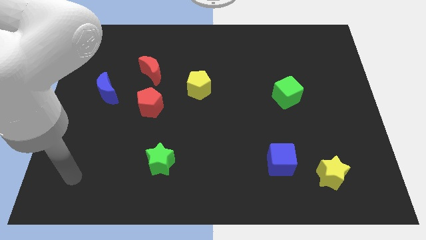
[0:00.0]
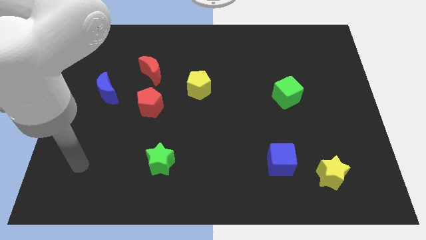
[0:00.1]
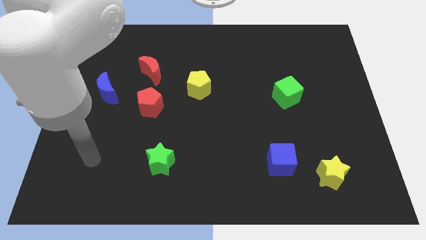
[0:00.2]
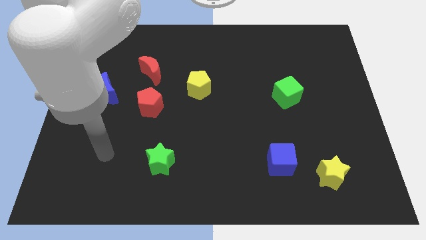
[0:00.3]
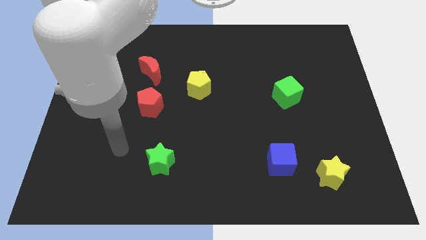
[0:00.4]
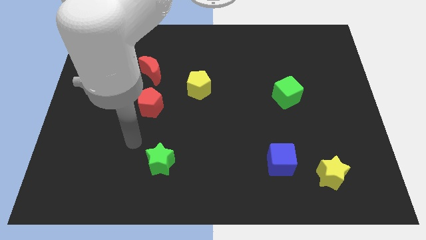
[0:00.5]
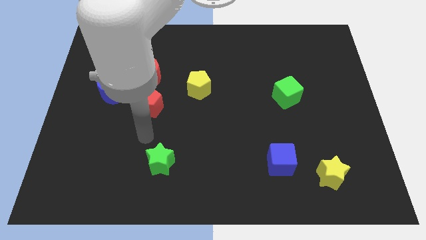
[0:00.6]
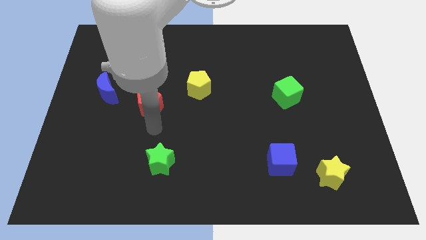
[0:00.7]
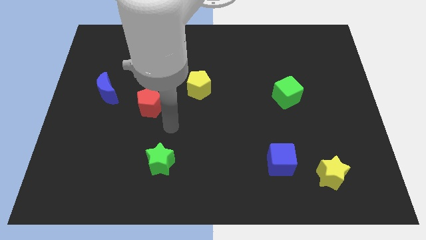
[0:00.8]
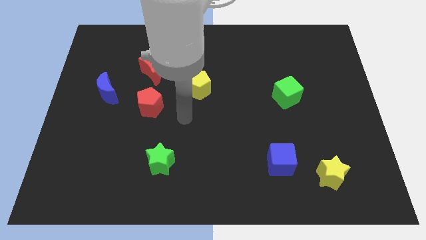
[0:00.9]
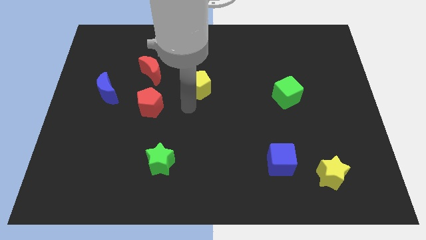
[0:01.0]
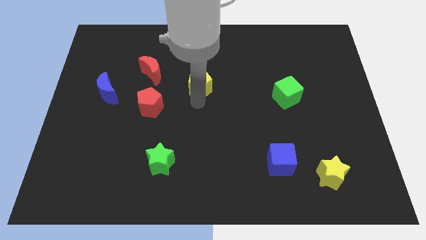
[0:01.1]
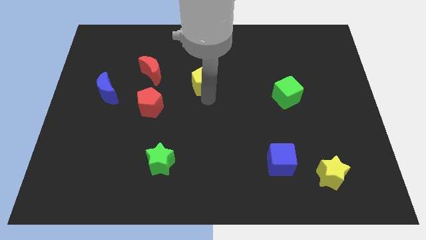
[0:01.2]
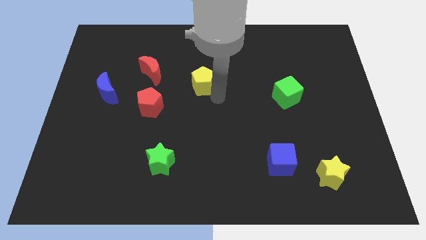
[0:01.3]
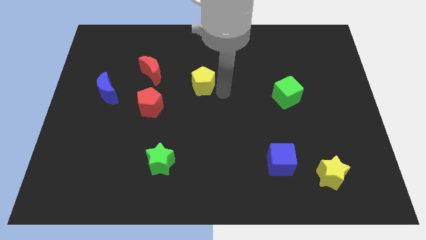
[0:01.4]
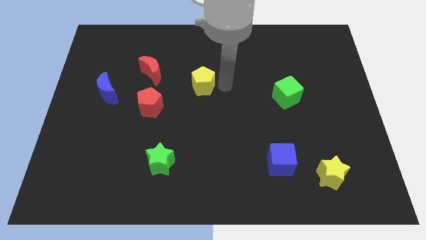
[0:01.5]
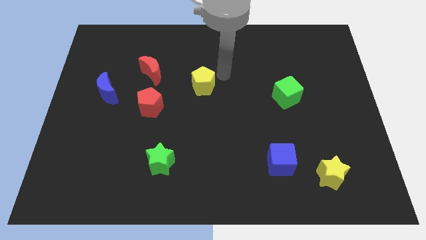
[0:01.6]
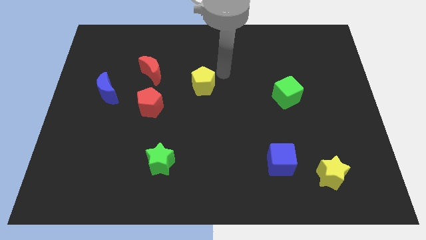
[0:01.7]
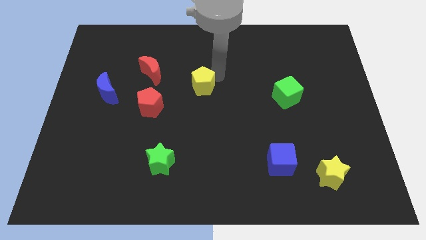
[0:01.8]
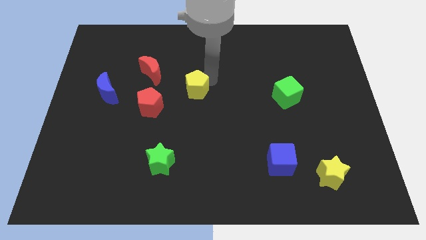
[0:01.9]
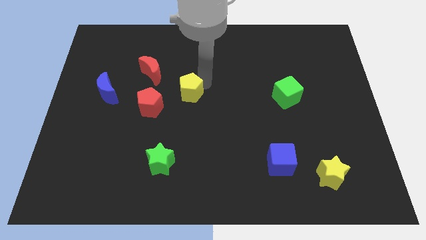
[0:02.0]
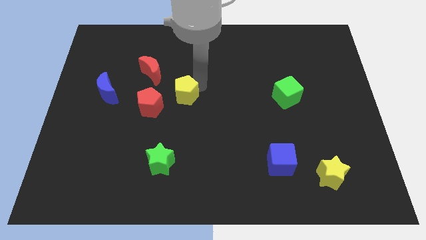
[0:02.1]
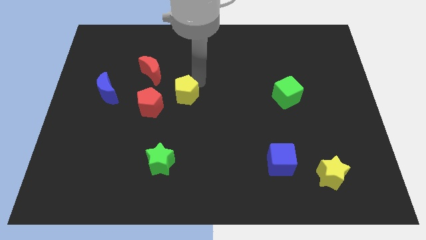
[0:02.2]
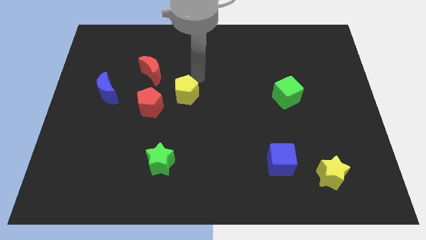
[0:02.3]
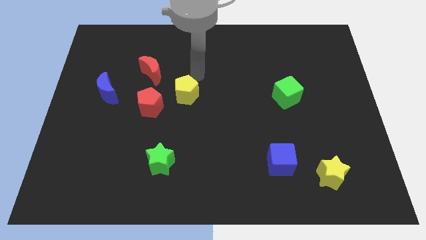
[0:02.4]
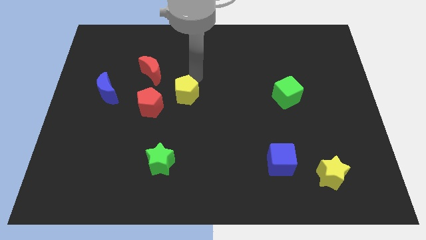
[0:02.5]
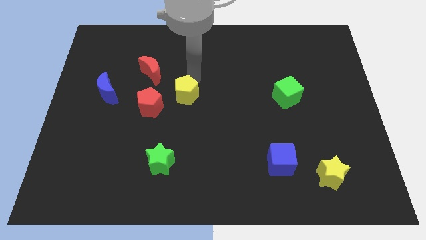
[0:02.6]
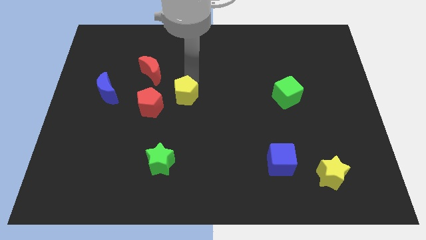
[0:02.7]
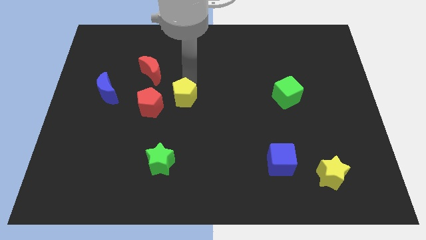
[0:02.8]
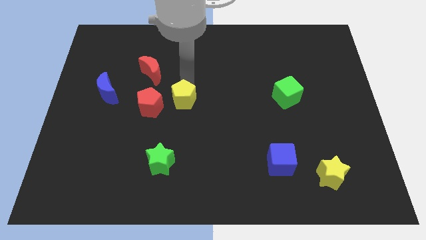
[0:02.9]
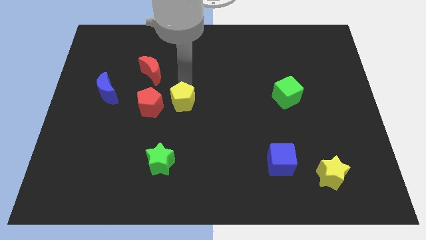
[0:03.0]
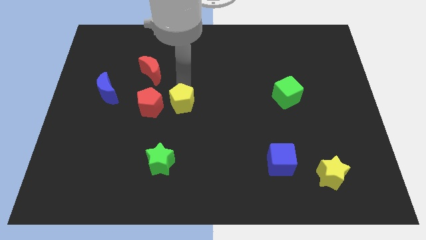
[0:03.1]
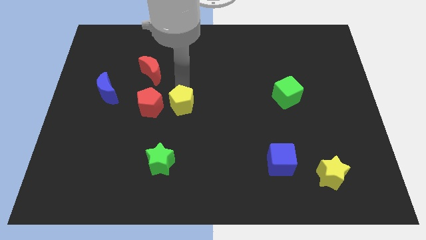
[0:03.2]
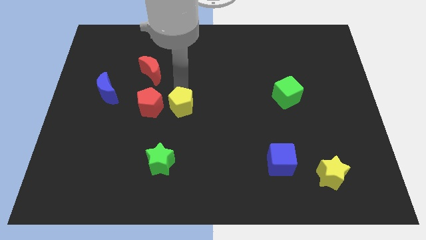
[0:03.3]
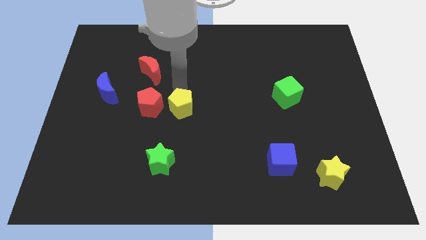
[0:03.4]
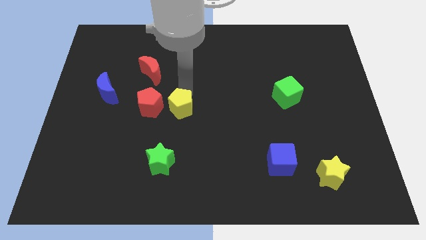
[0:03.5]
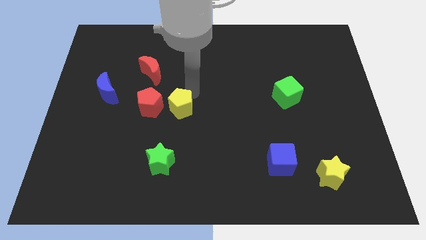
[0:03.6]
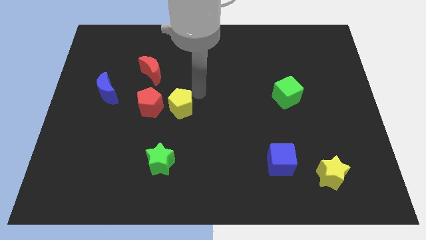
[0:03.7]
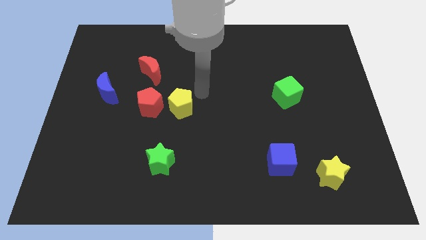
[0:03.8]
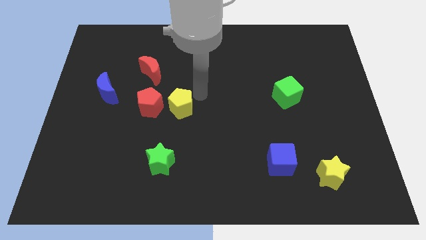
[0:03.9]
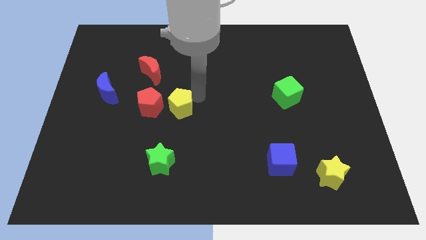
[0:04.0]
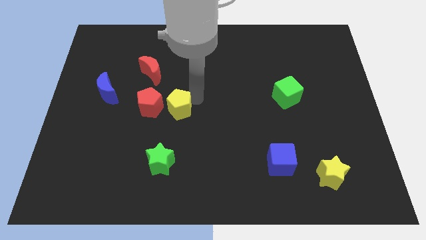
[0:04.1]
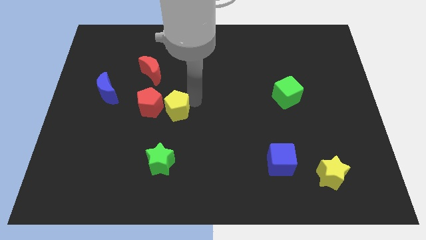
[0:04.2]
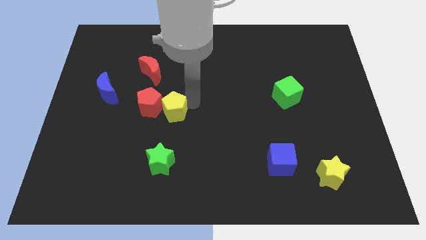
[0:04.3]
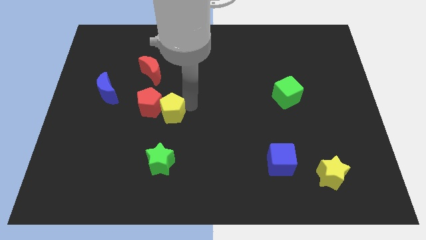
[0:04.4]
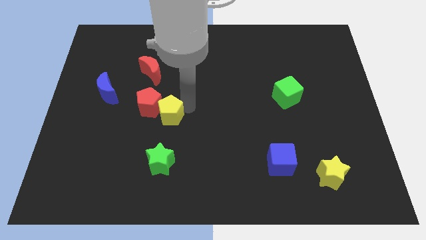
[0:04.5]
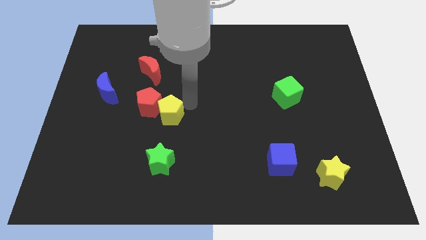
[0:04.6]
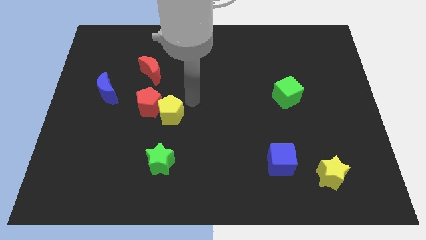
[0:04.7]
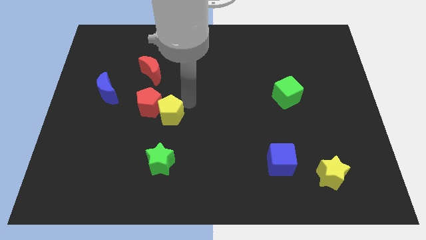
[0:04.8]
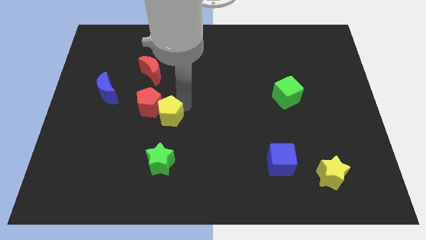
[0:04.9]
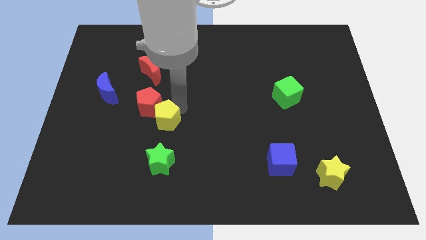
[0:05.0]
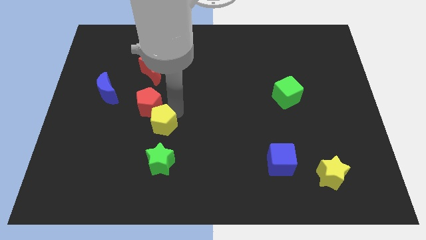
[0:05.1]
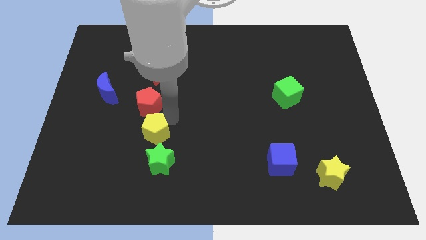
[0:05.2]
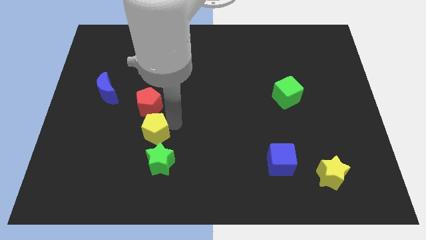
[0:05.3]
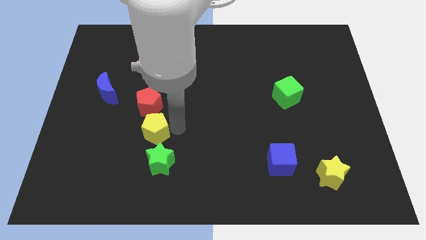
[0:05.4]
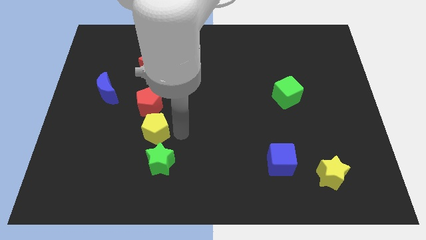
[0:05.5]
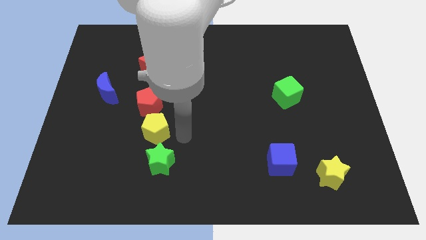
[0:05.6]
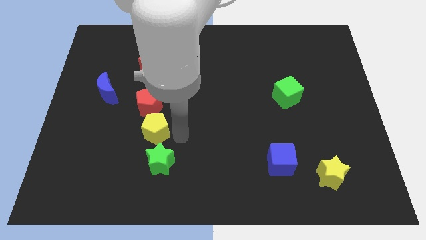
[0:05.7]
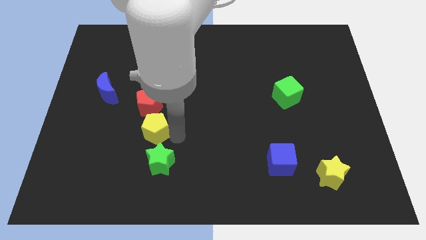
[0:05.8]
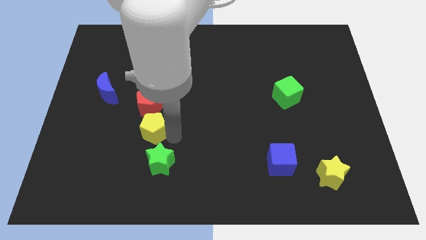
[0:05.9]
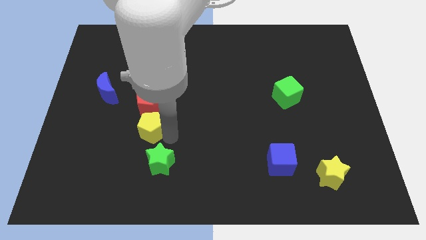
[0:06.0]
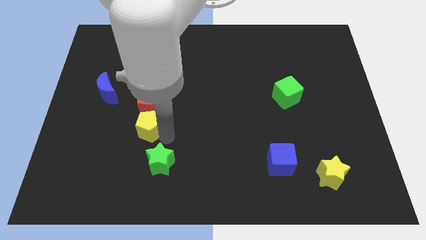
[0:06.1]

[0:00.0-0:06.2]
move the yellow pentagon to the bottom left of the red pentagon
